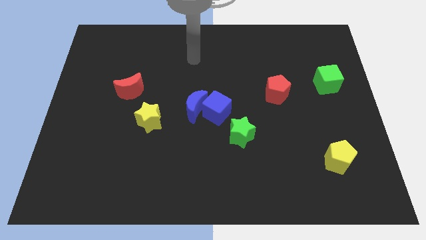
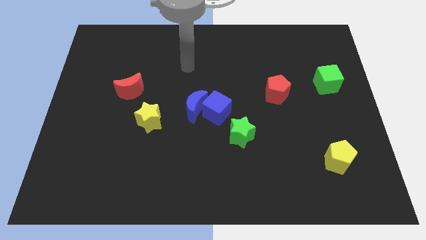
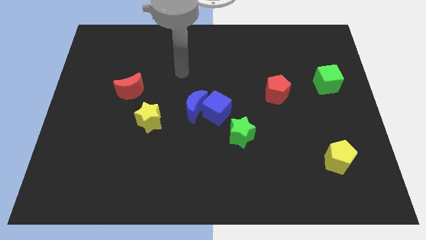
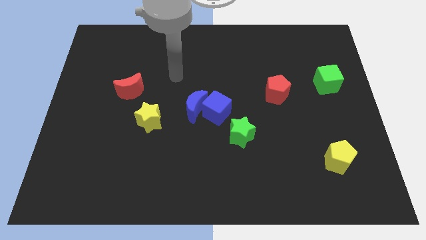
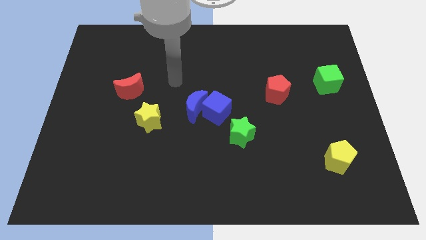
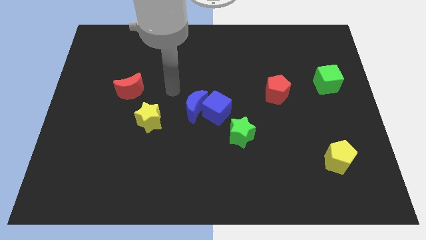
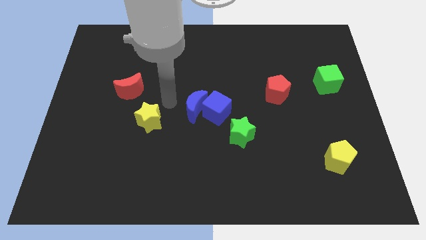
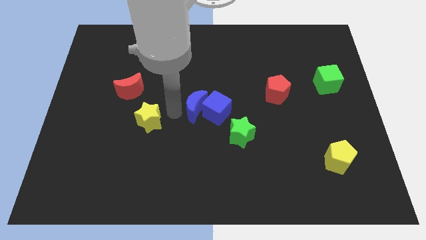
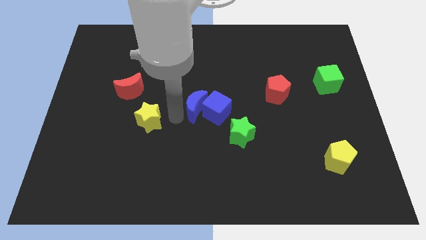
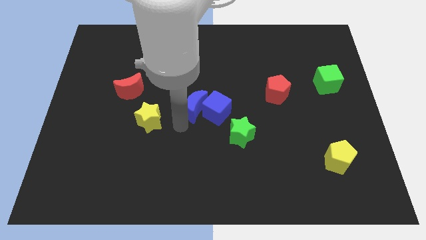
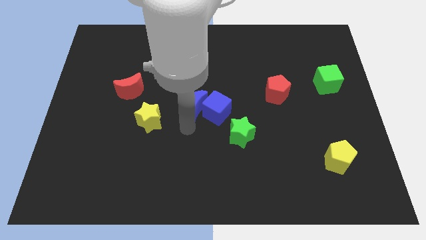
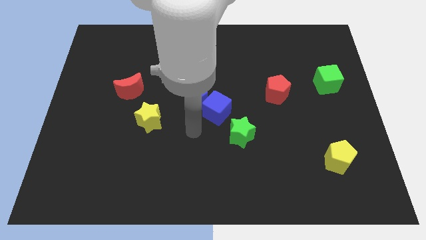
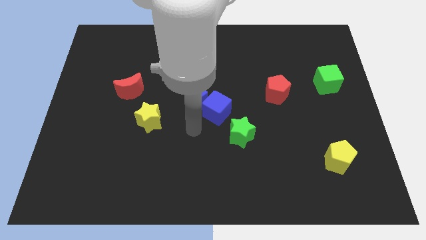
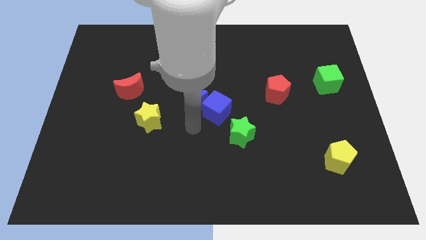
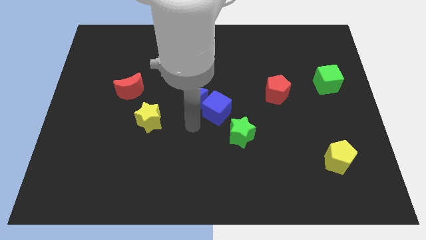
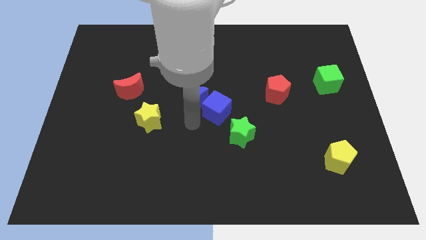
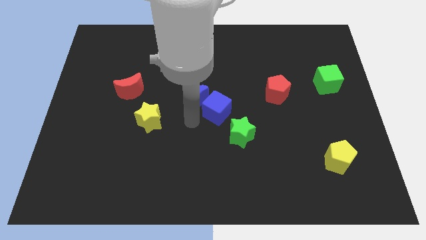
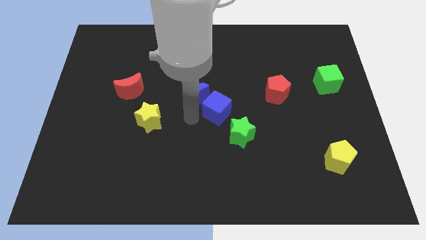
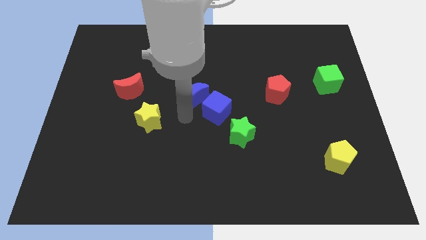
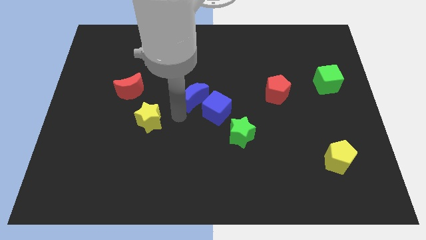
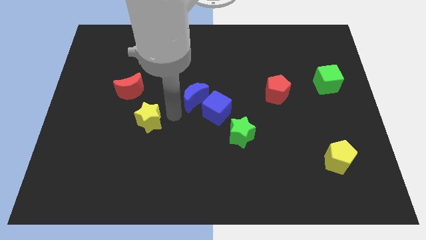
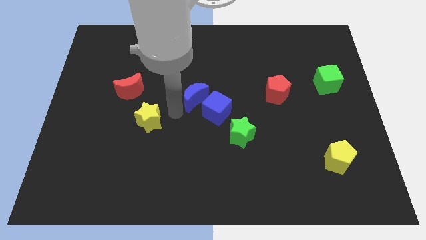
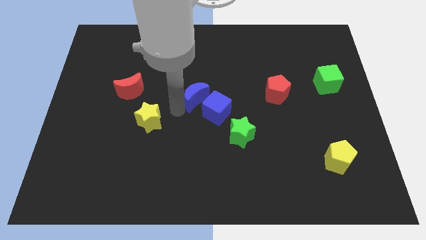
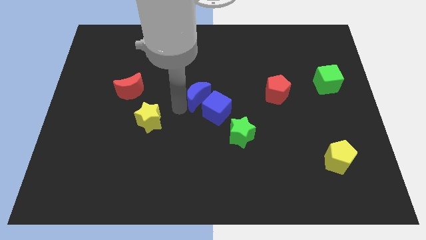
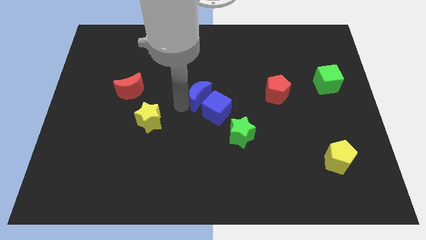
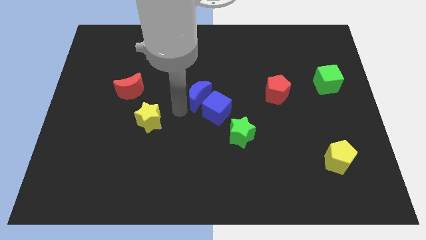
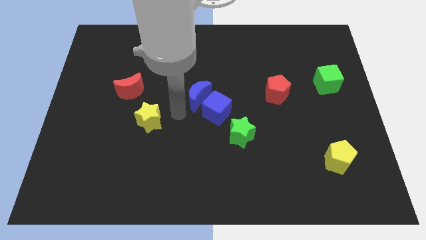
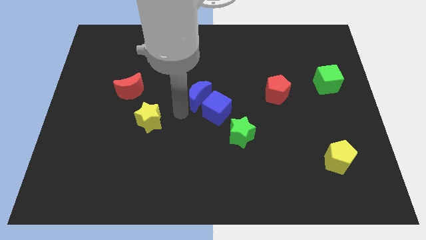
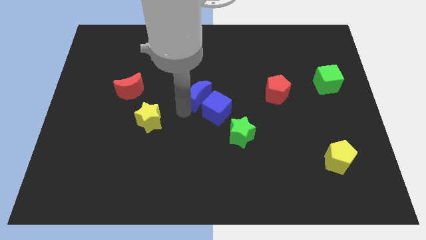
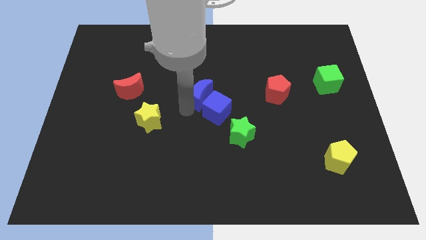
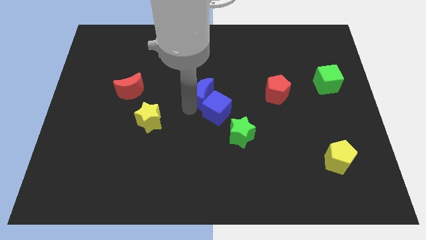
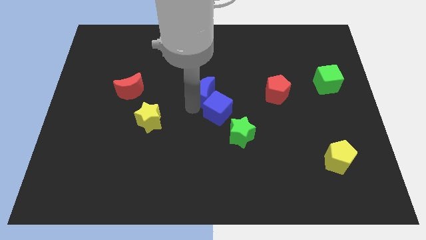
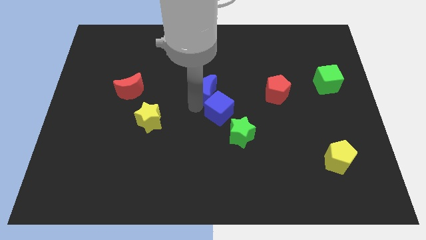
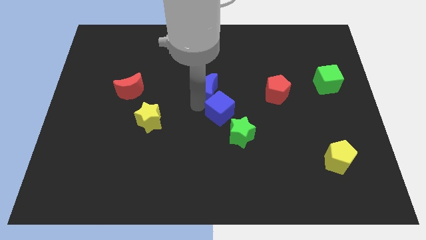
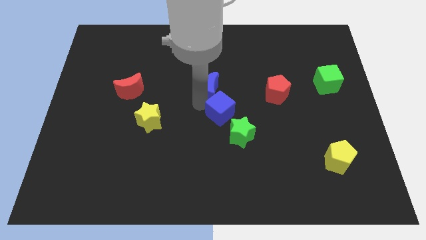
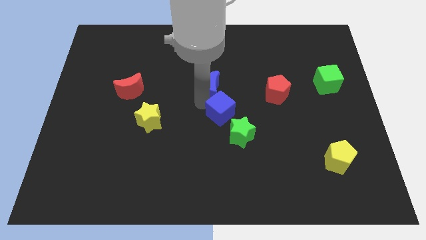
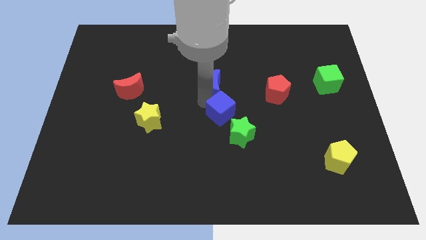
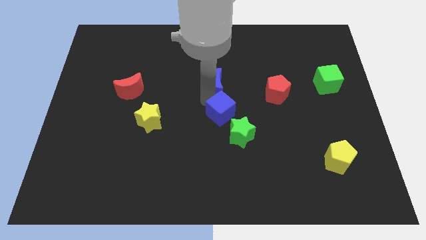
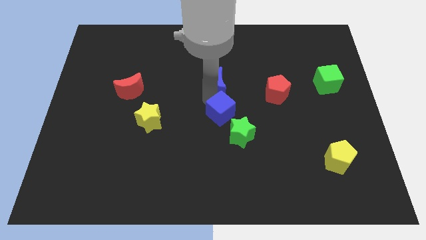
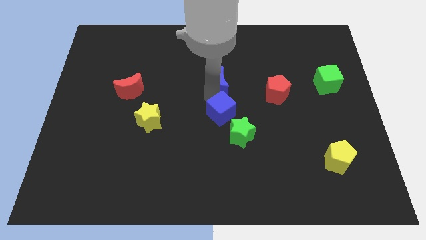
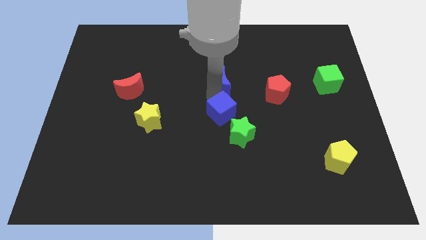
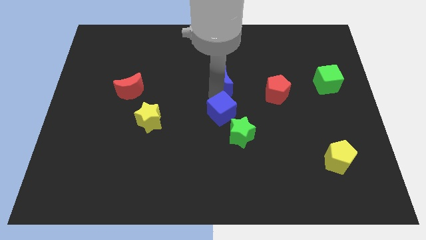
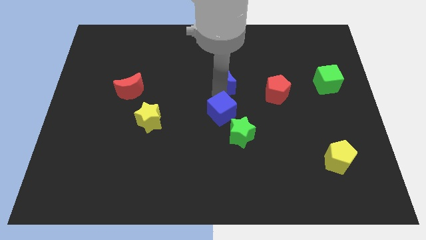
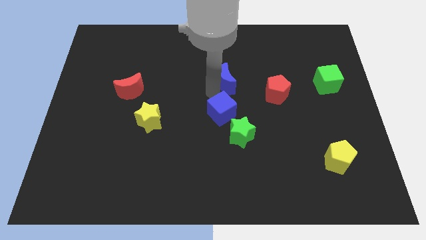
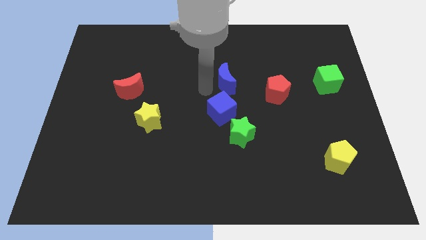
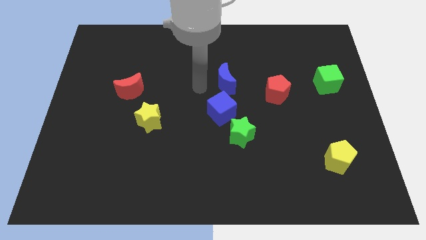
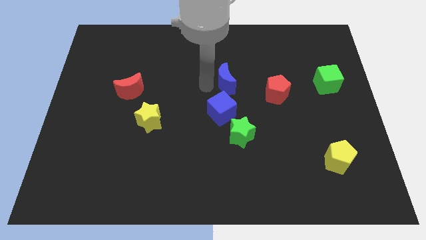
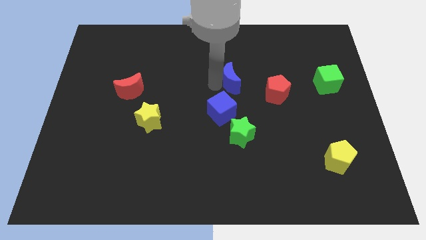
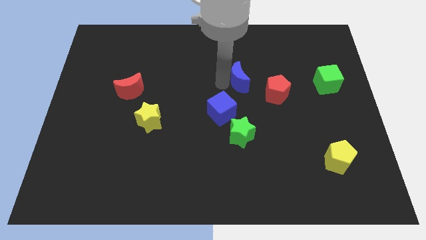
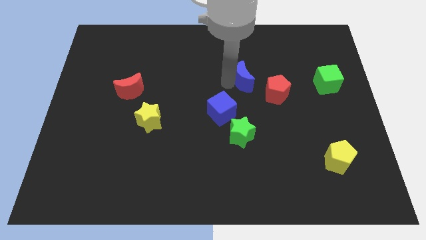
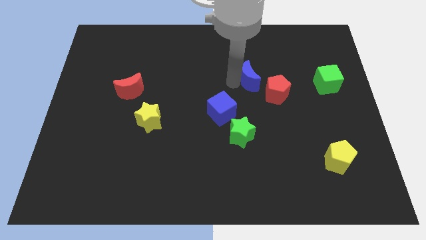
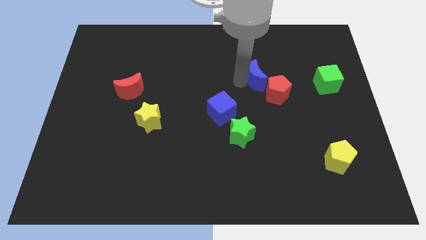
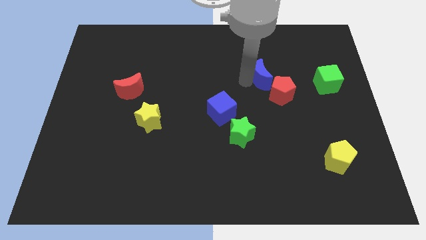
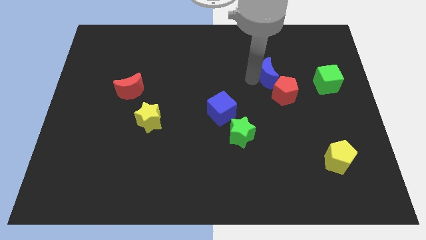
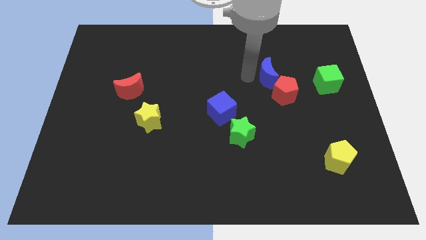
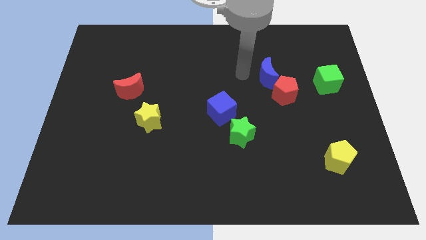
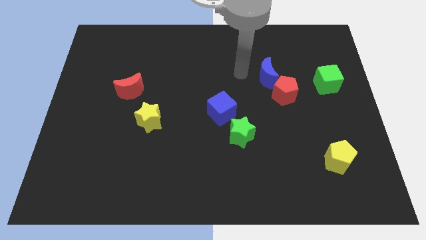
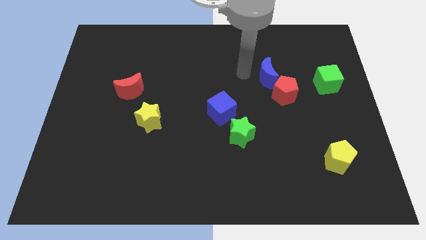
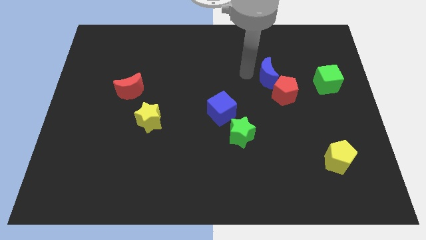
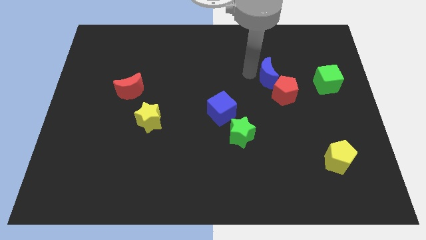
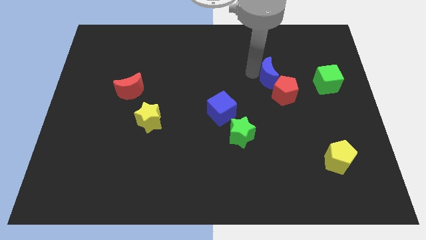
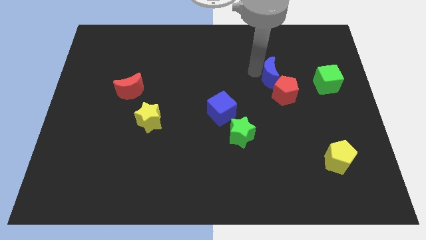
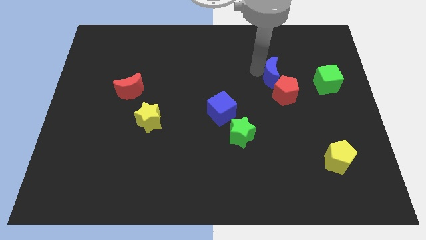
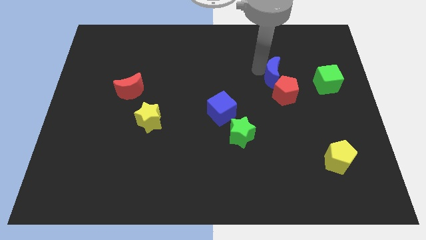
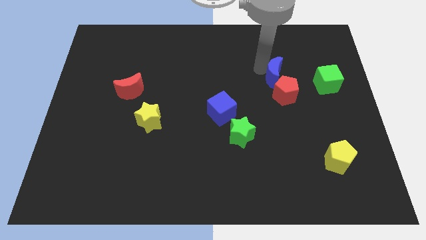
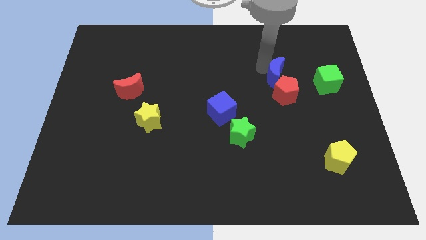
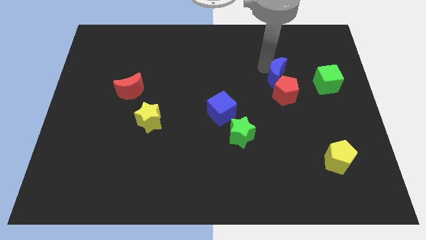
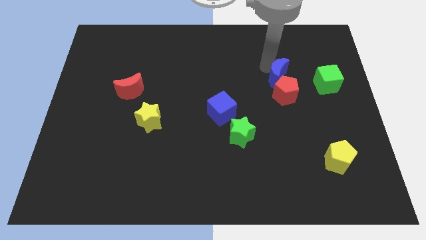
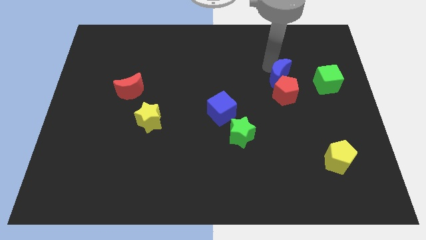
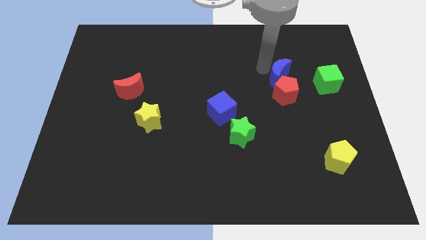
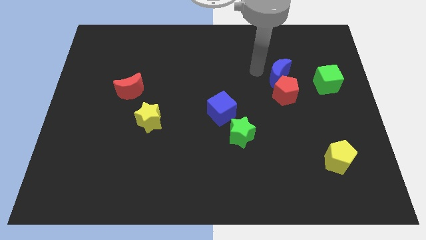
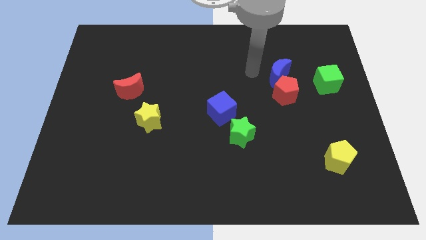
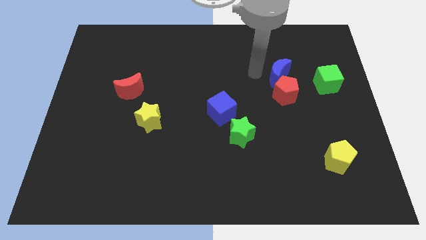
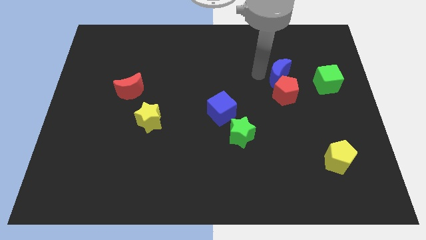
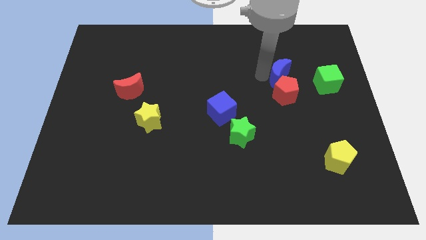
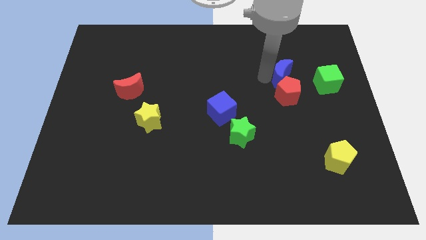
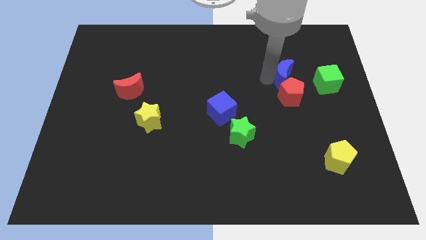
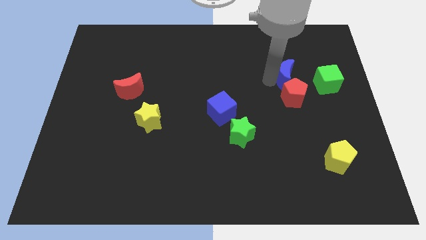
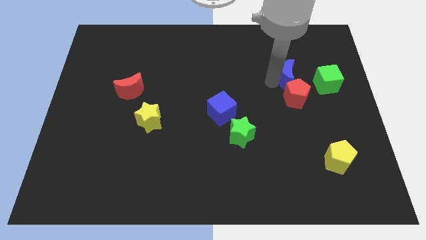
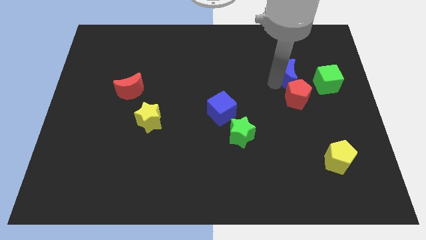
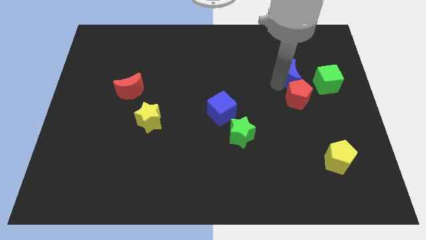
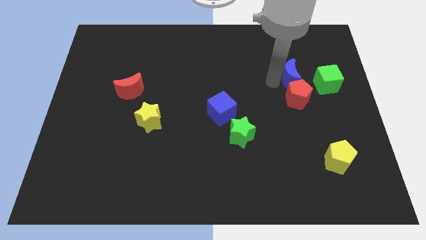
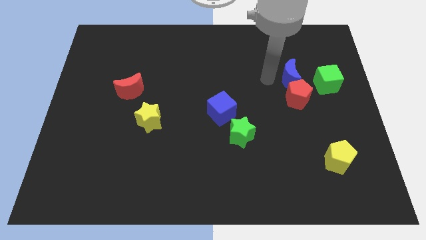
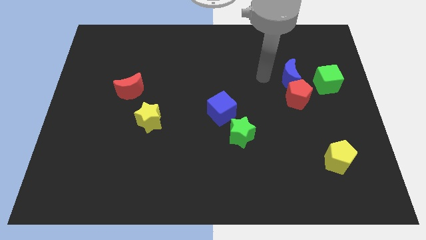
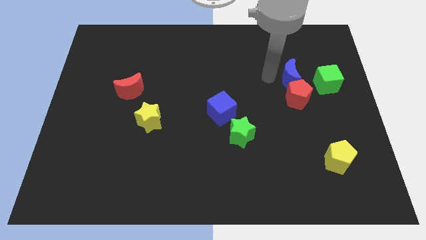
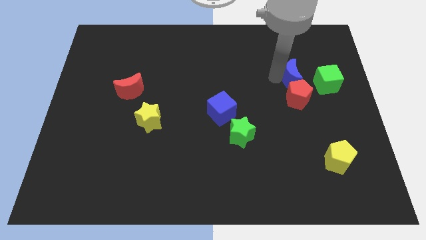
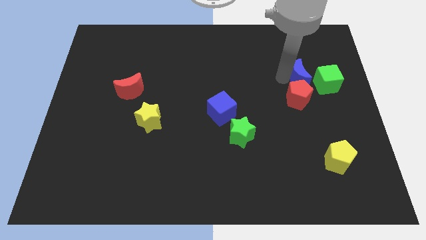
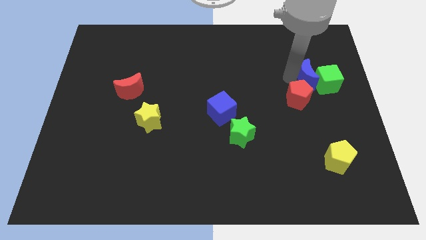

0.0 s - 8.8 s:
put the blue moon towards the green cube
